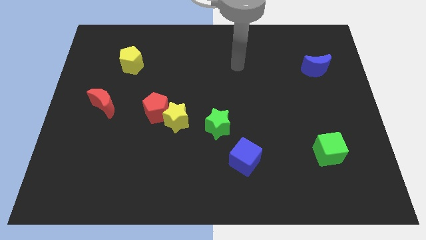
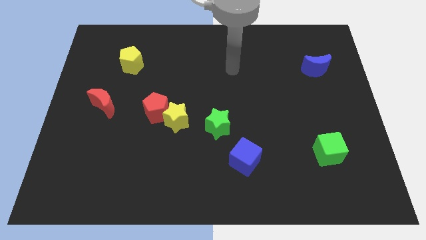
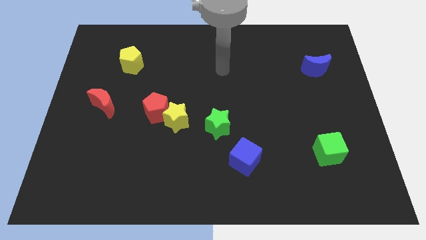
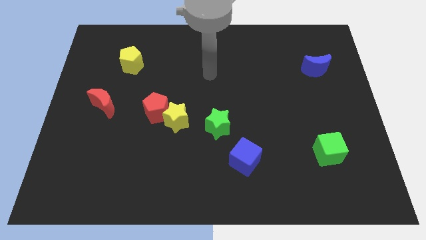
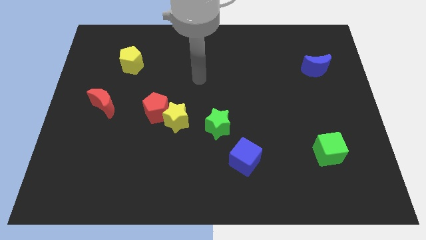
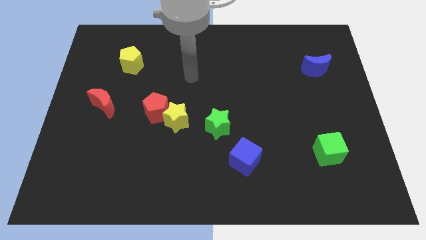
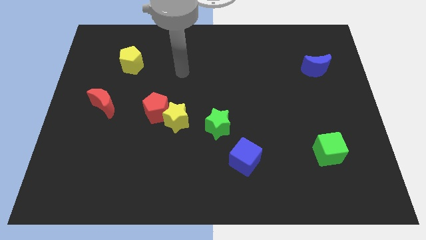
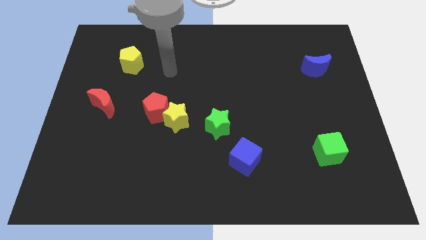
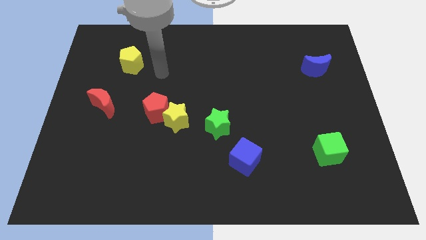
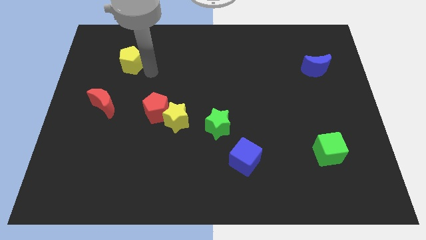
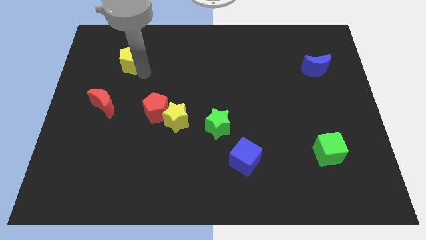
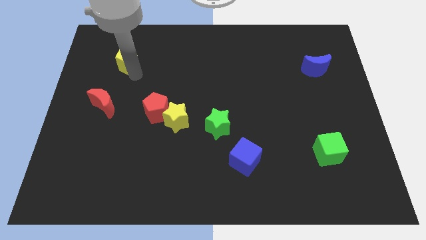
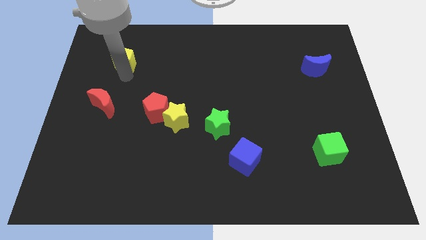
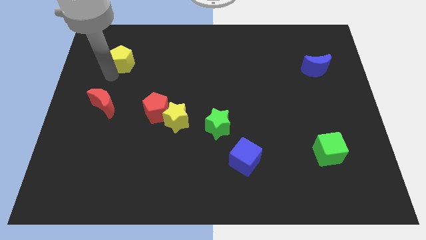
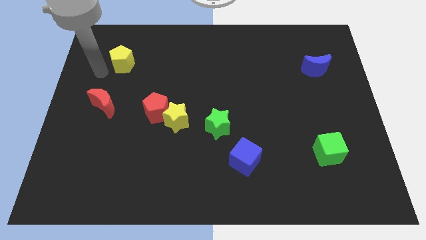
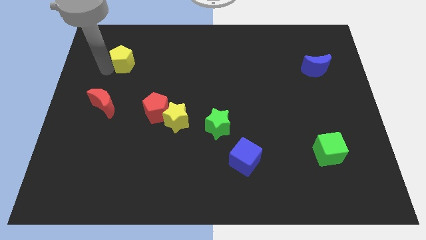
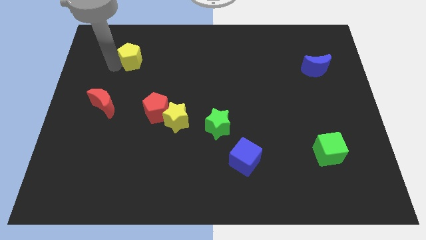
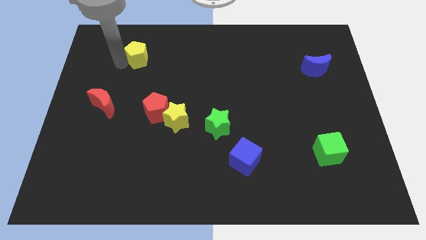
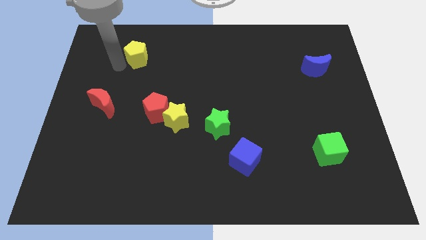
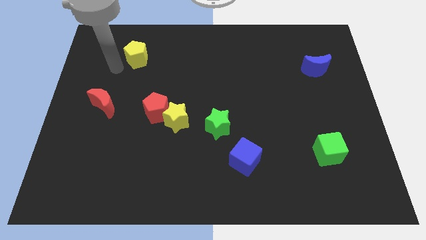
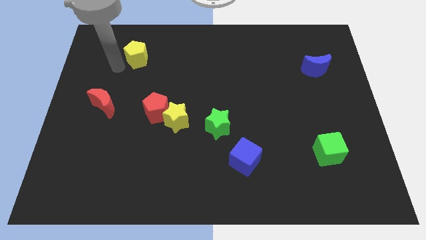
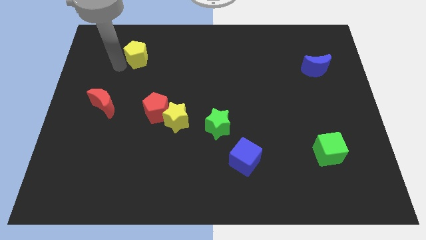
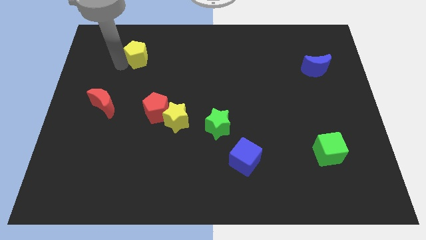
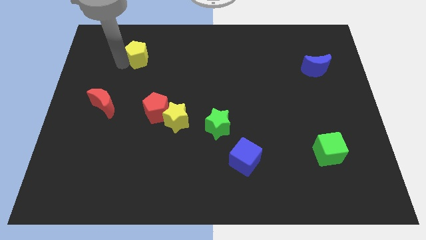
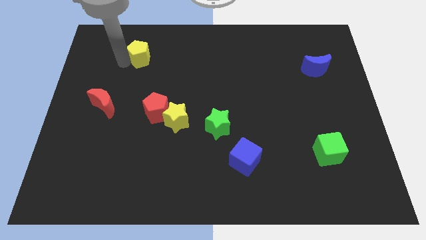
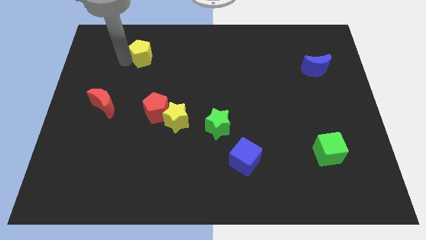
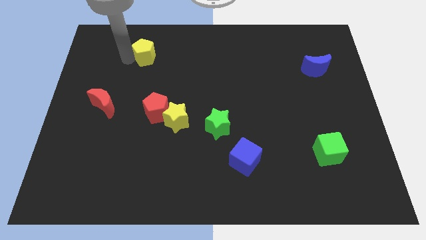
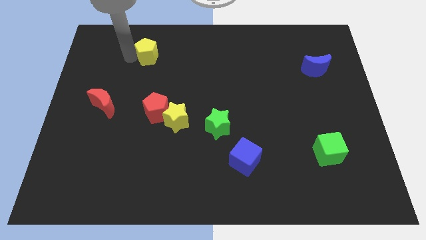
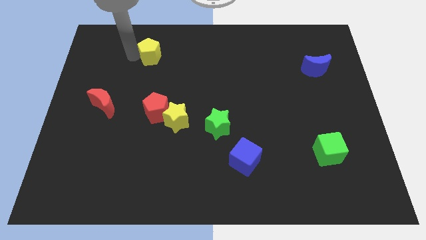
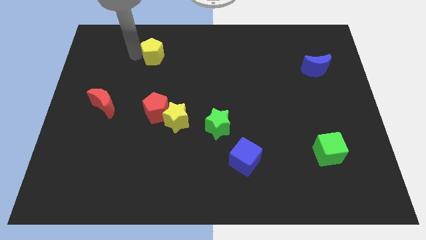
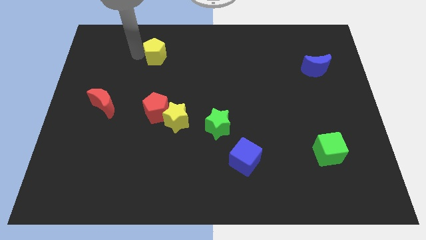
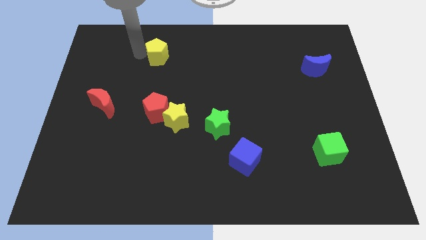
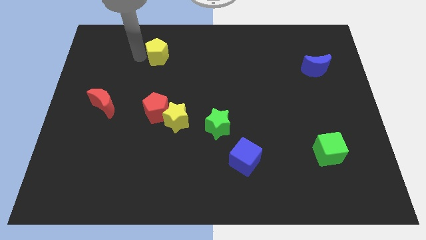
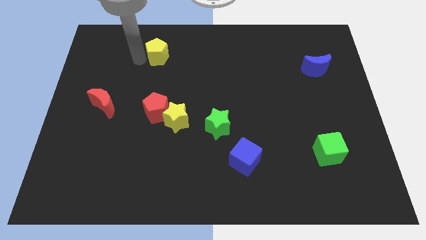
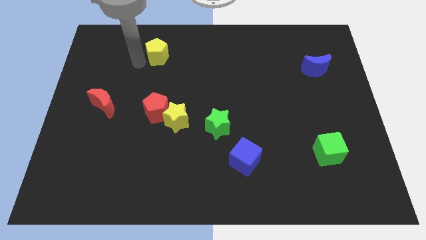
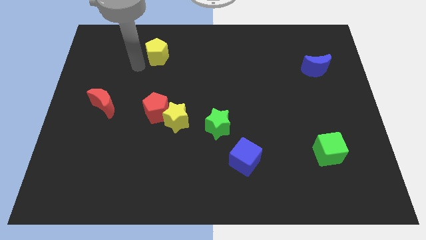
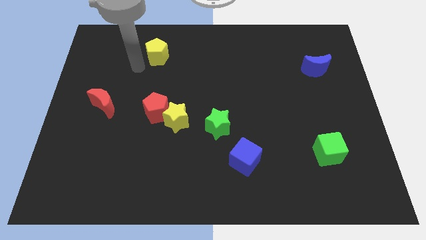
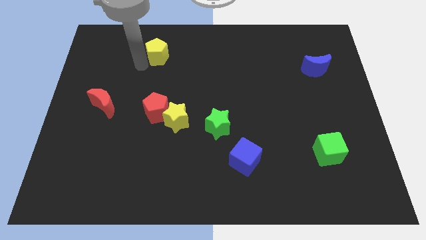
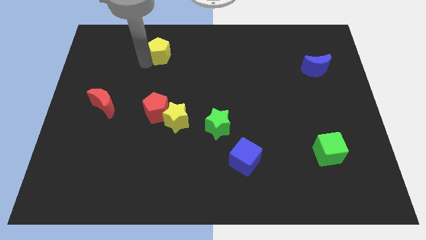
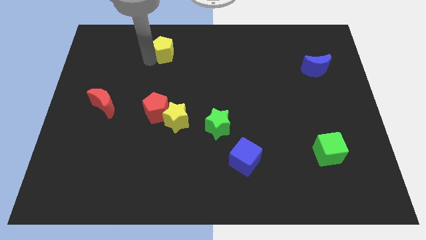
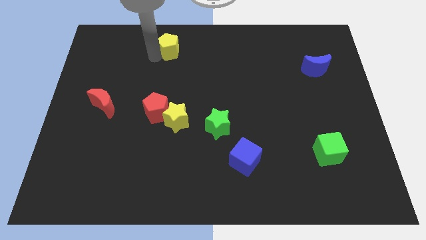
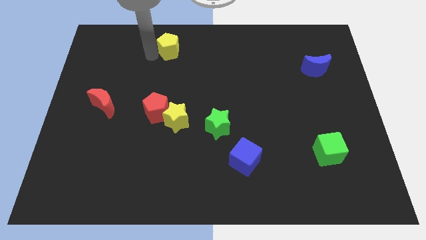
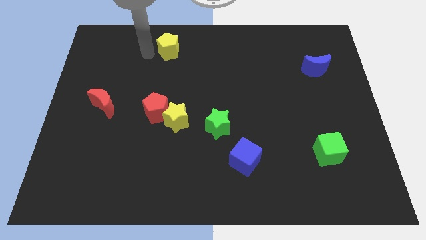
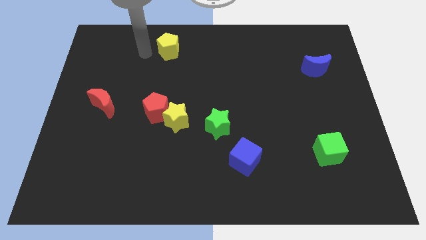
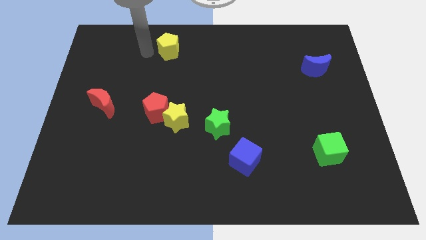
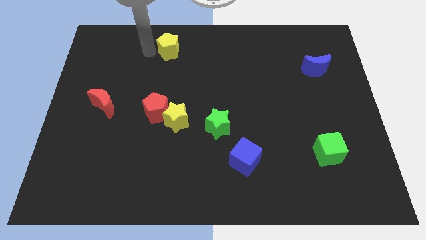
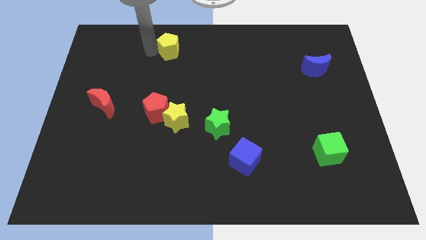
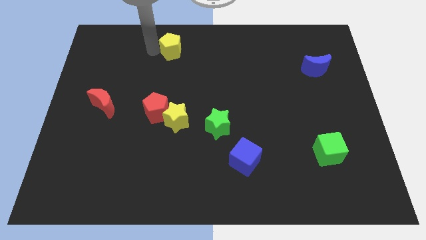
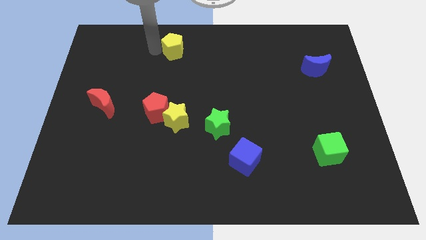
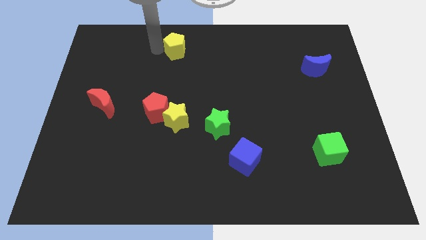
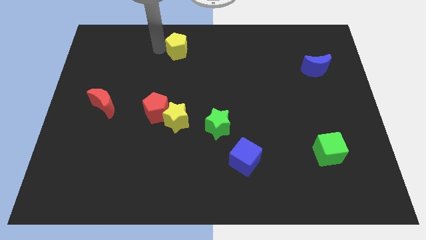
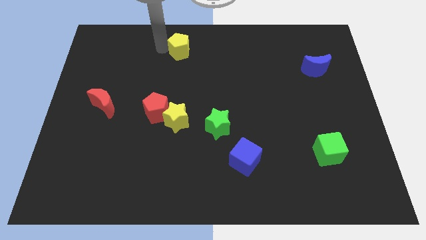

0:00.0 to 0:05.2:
put the yellow pentagon to the towards your base

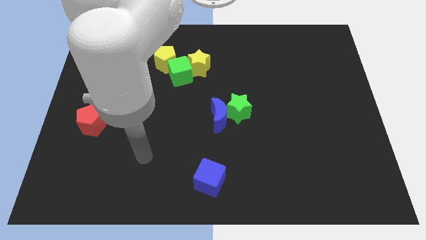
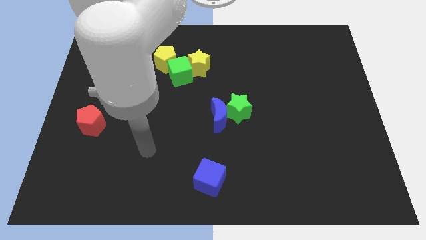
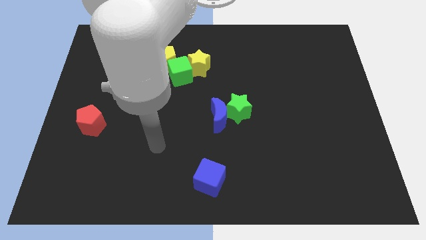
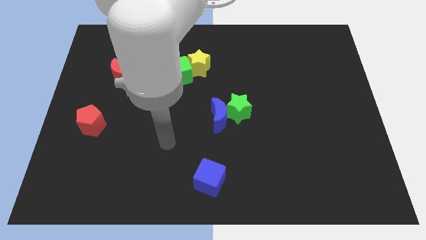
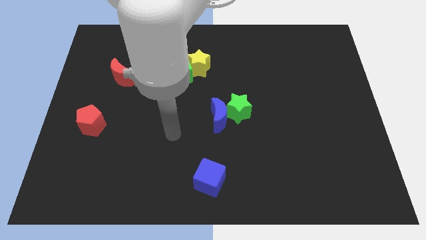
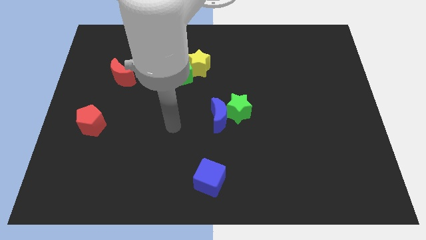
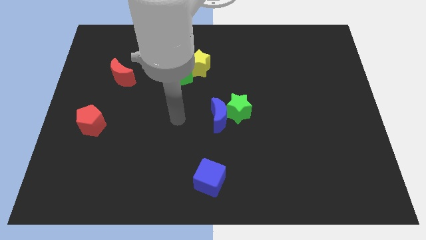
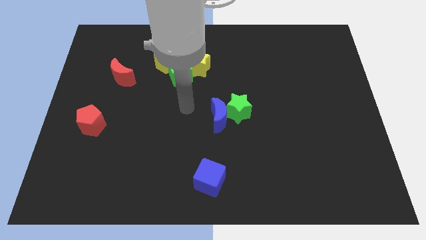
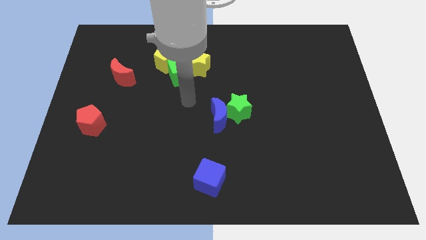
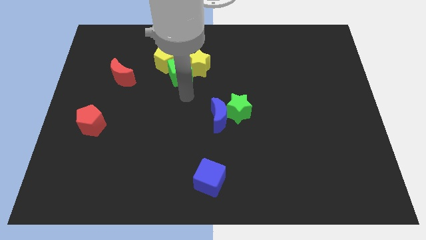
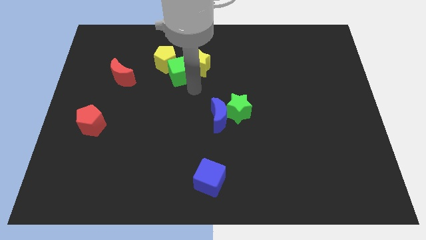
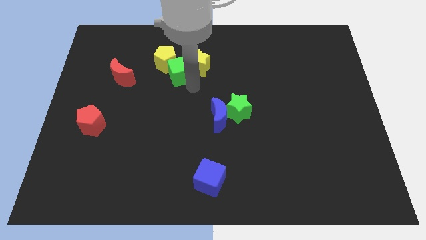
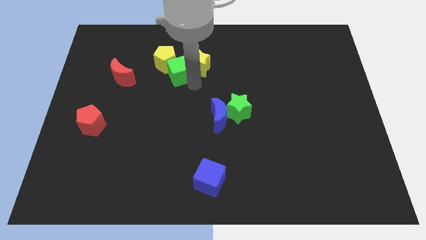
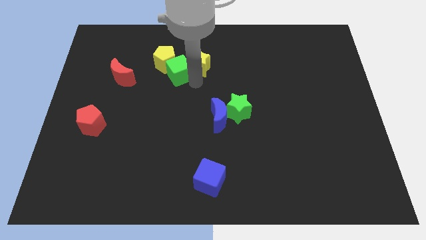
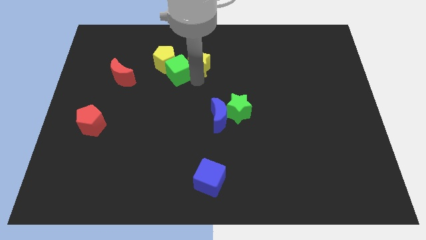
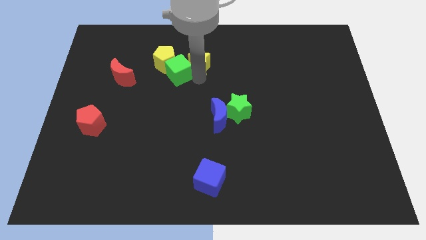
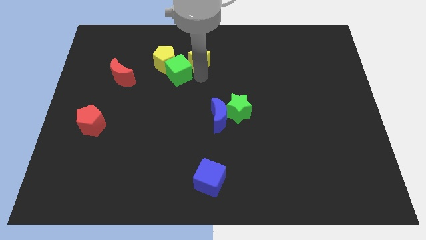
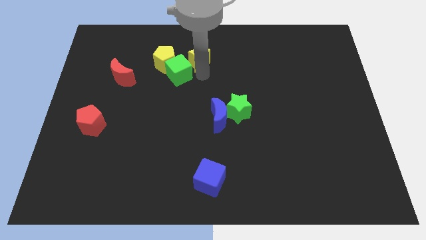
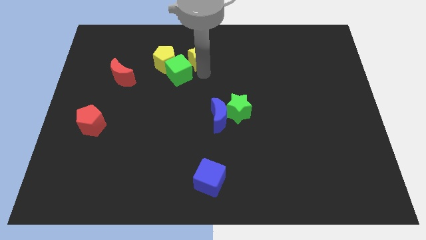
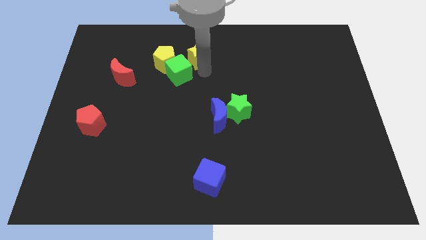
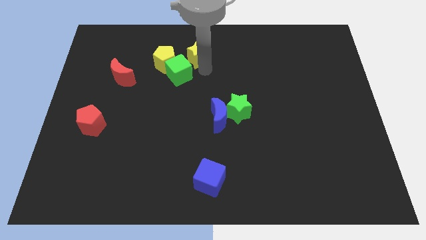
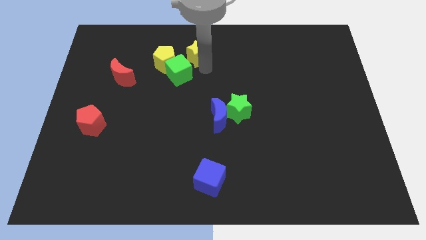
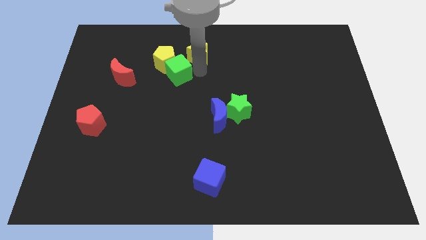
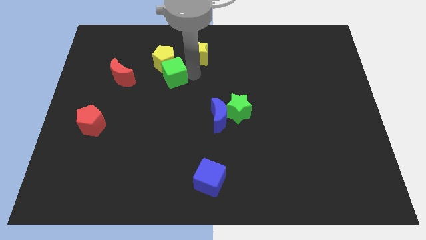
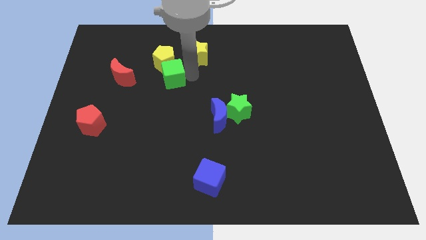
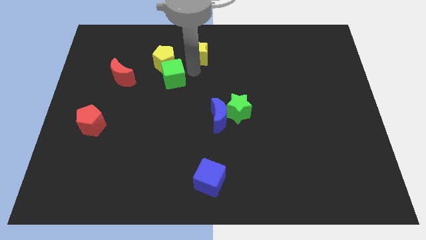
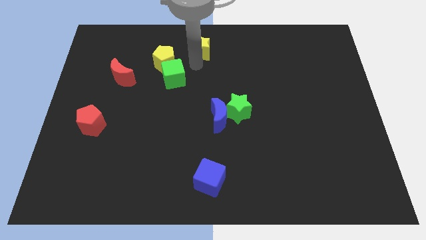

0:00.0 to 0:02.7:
put the yellow star to the towards your base
